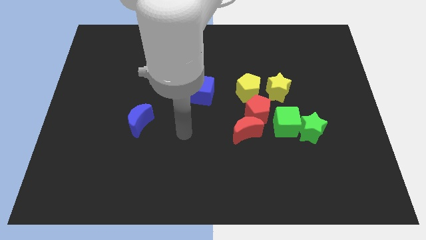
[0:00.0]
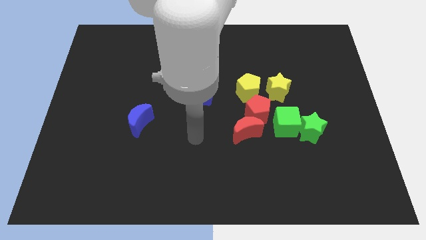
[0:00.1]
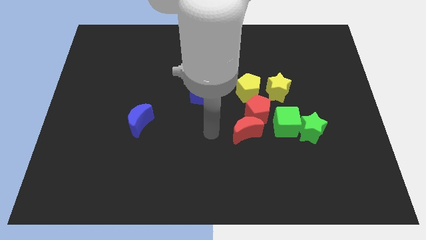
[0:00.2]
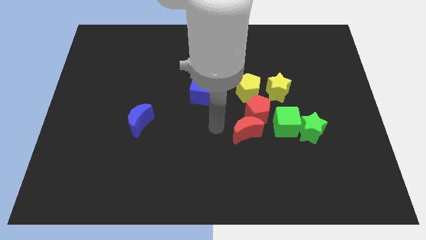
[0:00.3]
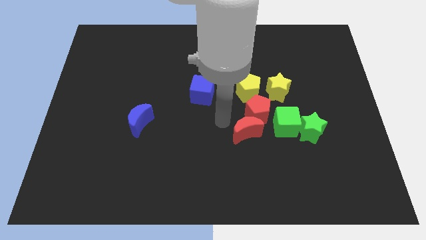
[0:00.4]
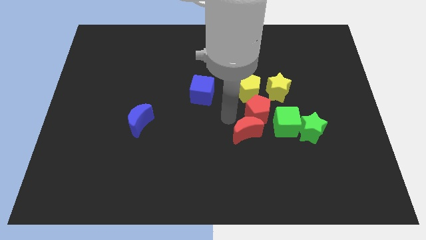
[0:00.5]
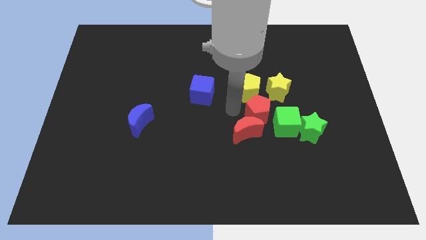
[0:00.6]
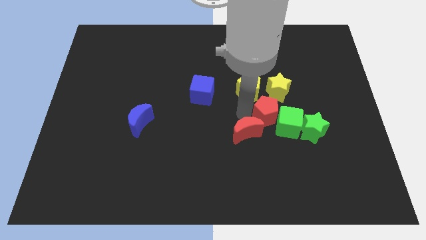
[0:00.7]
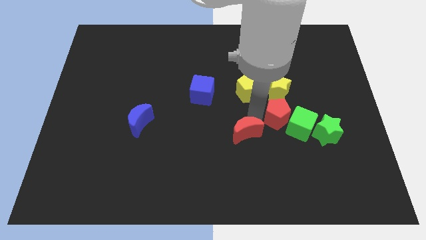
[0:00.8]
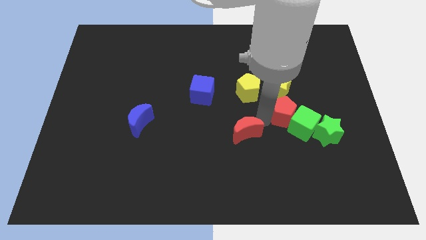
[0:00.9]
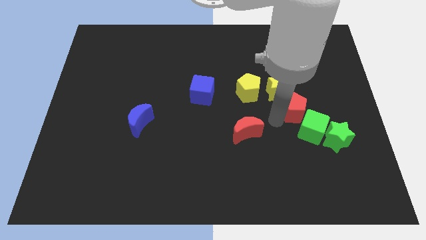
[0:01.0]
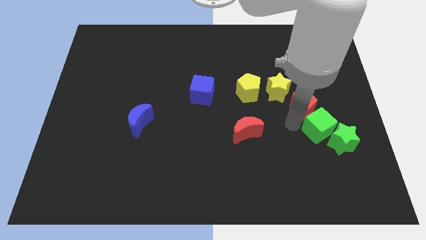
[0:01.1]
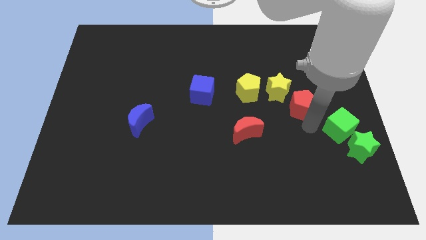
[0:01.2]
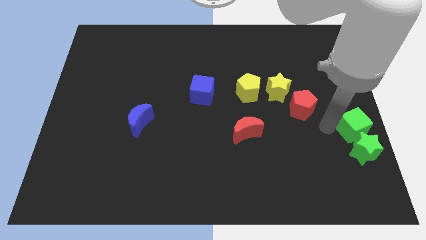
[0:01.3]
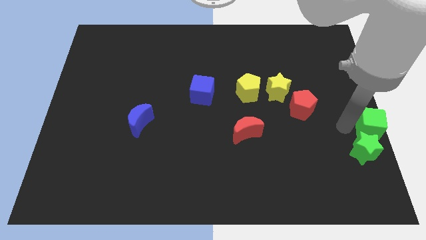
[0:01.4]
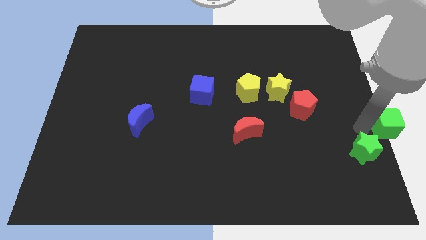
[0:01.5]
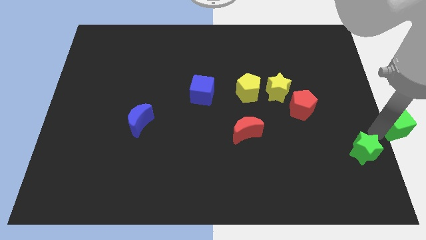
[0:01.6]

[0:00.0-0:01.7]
separate the green star from the green cube

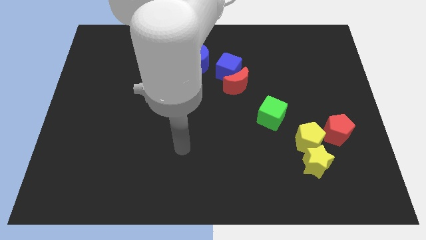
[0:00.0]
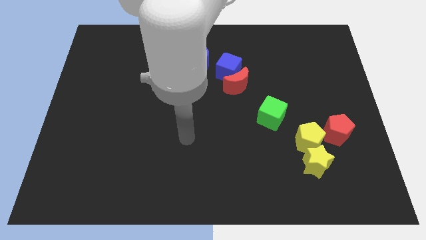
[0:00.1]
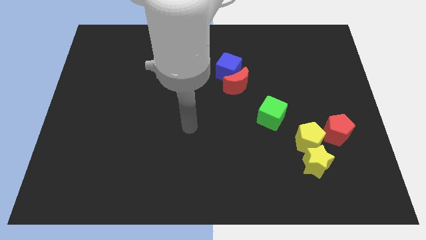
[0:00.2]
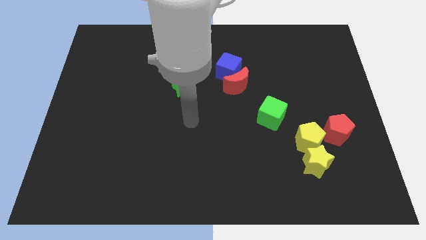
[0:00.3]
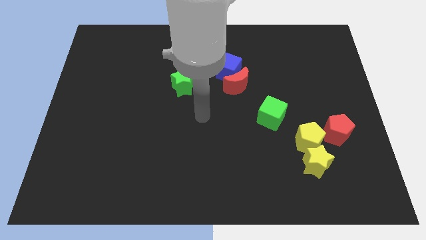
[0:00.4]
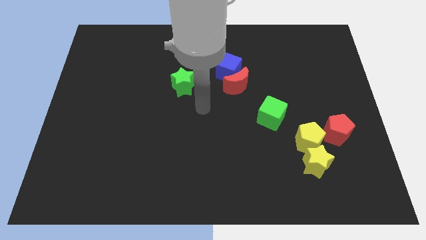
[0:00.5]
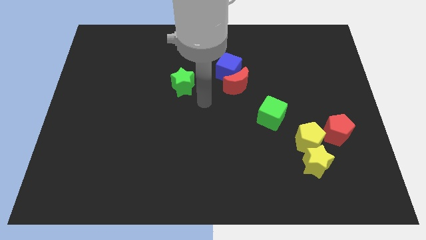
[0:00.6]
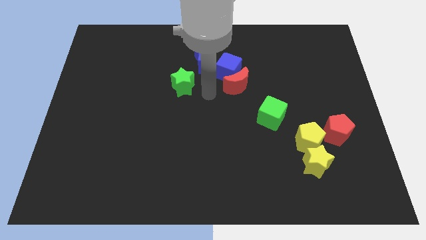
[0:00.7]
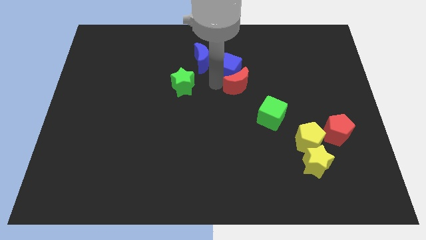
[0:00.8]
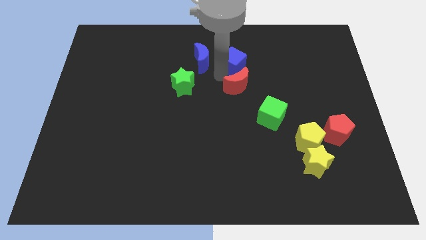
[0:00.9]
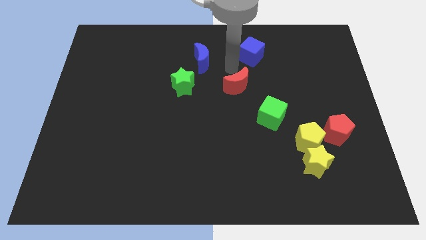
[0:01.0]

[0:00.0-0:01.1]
separate the red moon from the blue cube

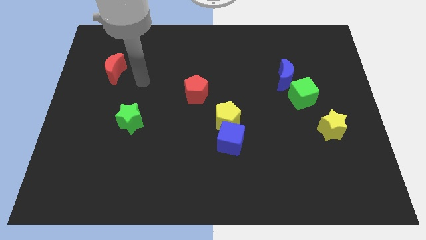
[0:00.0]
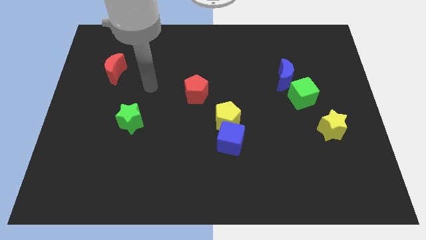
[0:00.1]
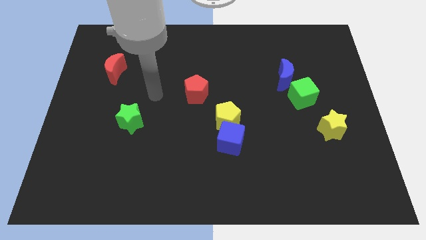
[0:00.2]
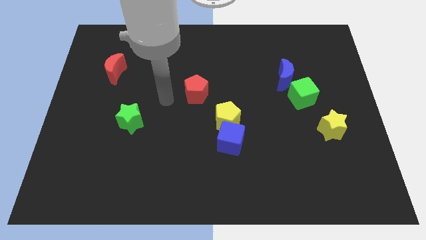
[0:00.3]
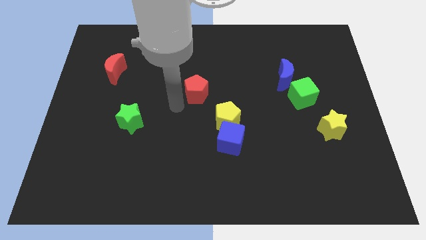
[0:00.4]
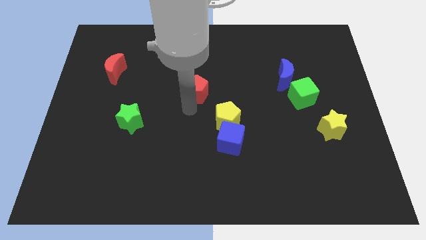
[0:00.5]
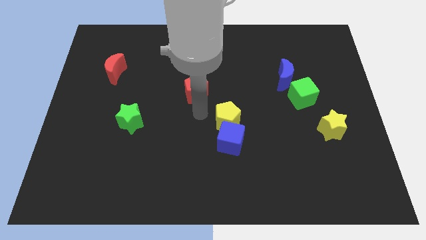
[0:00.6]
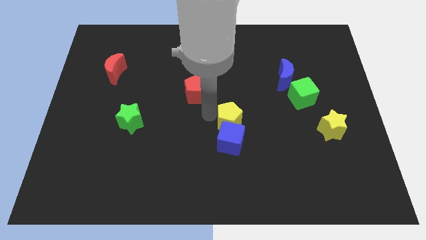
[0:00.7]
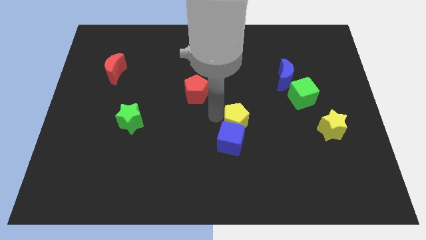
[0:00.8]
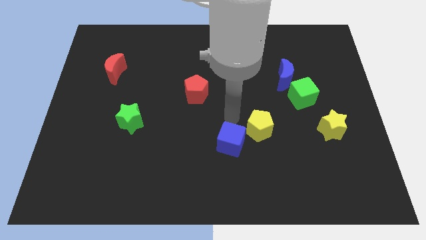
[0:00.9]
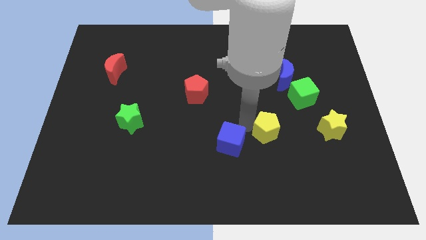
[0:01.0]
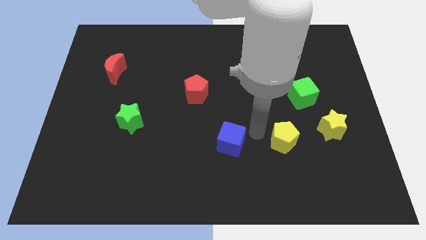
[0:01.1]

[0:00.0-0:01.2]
pull the blue cube apart from the yellow pentagon

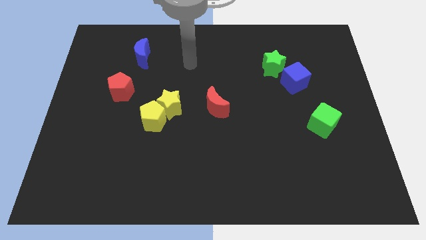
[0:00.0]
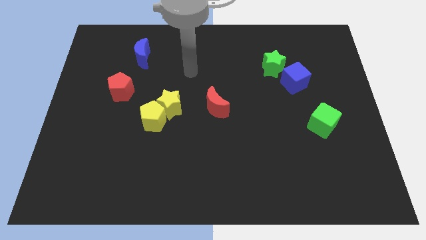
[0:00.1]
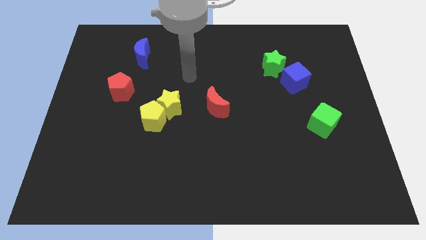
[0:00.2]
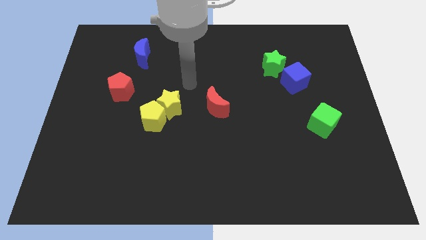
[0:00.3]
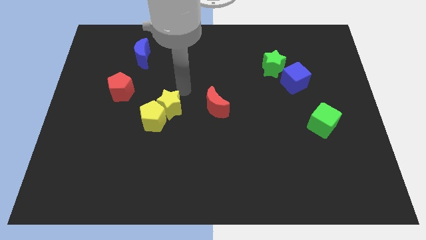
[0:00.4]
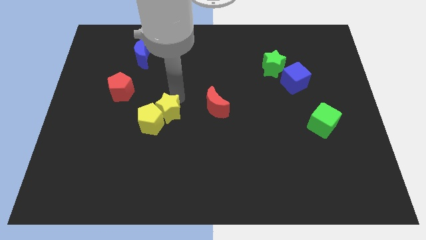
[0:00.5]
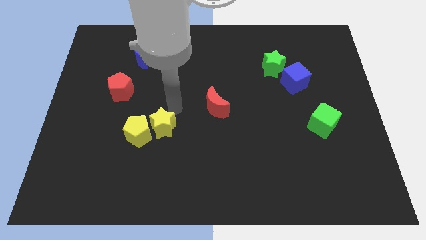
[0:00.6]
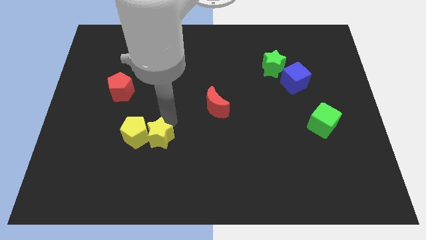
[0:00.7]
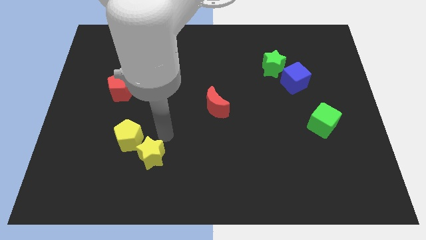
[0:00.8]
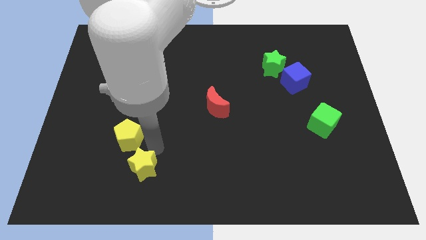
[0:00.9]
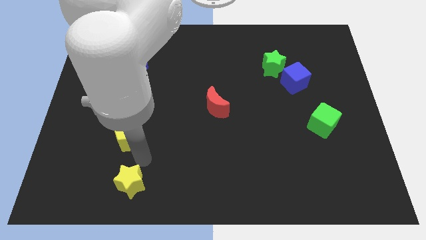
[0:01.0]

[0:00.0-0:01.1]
separate the yellow pentagon from the yellow star

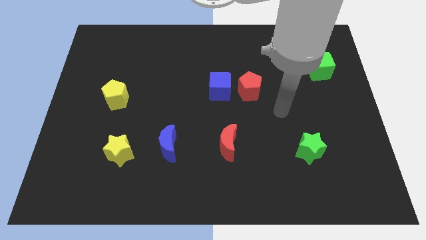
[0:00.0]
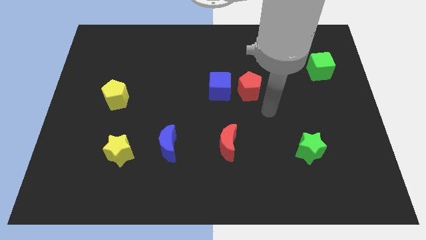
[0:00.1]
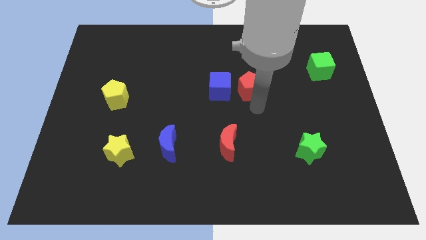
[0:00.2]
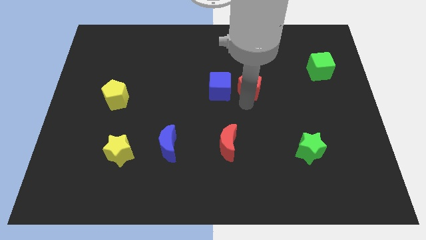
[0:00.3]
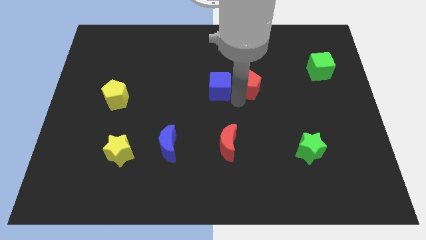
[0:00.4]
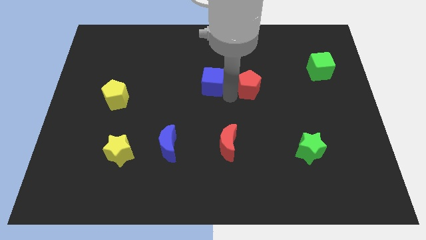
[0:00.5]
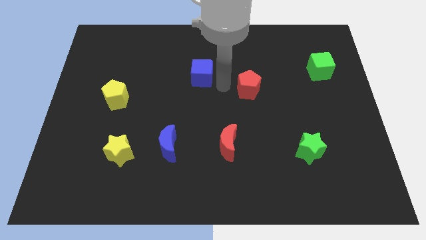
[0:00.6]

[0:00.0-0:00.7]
separate the red pentagon from the blue cube

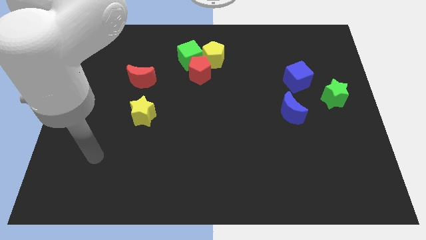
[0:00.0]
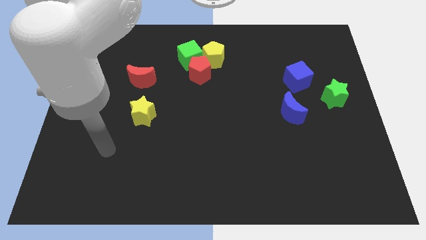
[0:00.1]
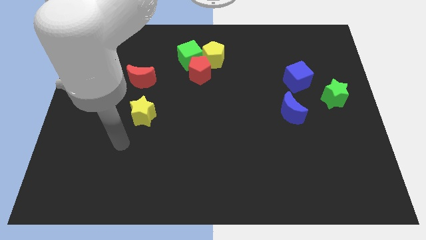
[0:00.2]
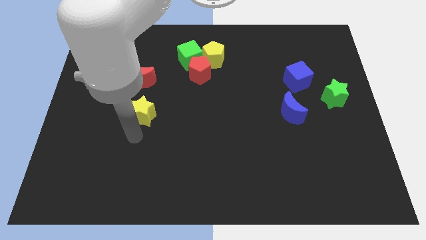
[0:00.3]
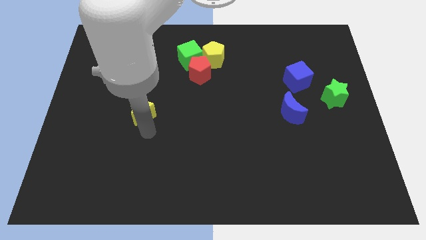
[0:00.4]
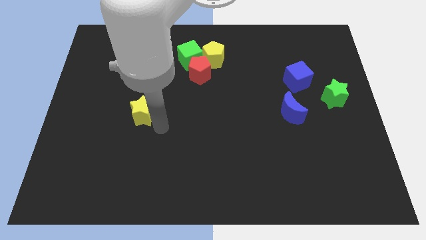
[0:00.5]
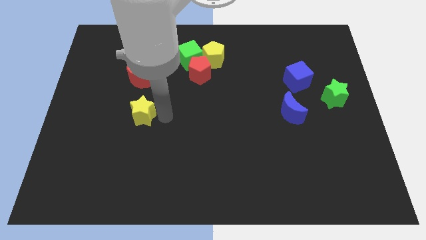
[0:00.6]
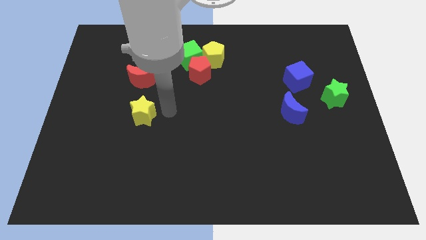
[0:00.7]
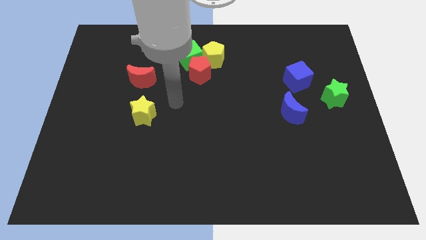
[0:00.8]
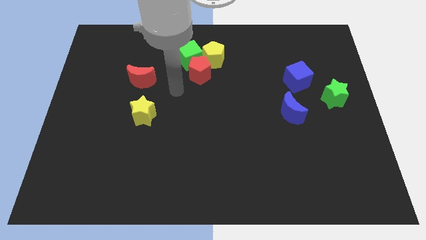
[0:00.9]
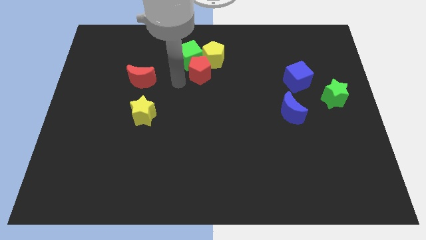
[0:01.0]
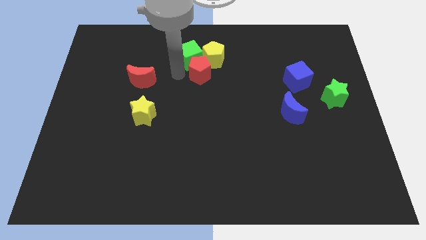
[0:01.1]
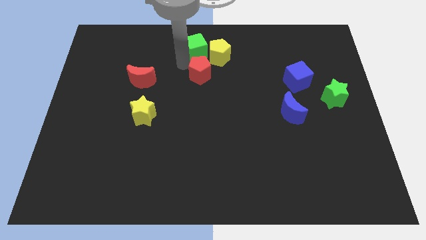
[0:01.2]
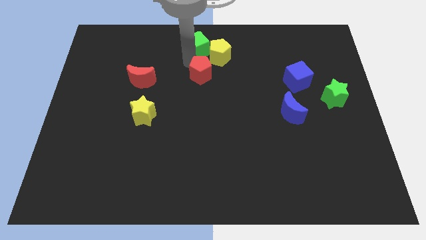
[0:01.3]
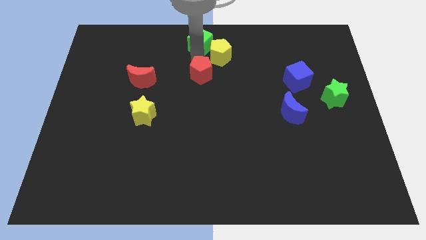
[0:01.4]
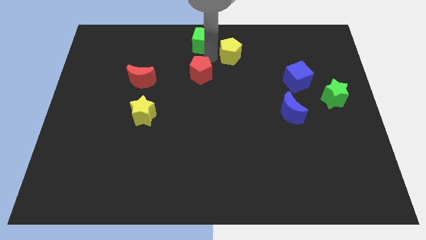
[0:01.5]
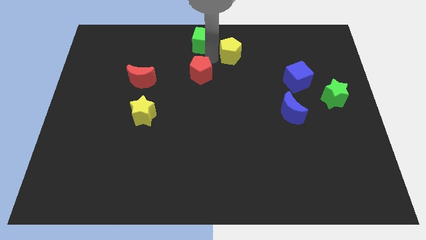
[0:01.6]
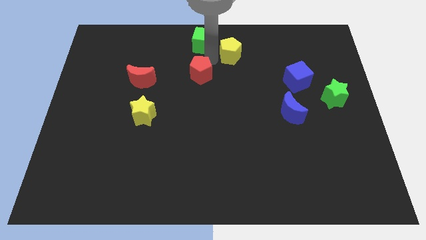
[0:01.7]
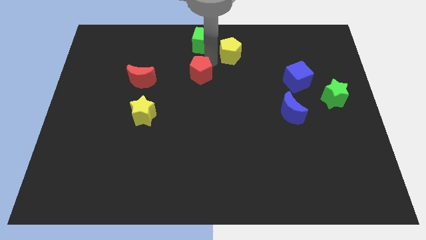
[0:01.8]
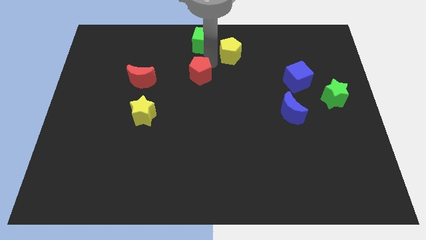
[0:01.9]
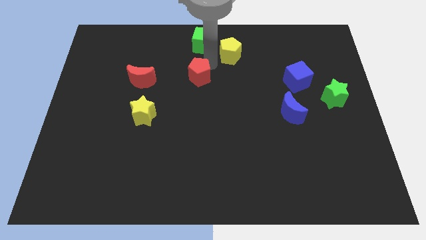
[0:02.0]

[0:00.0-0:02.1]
separate the red pentagon from the green cube and yellow pentagon

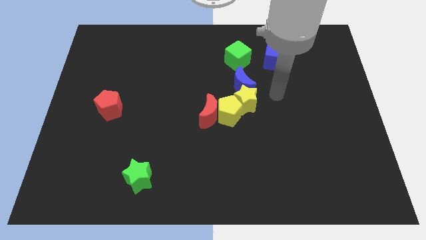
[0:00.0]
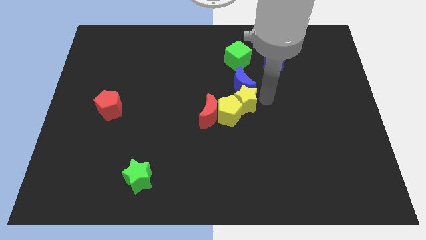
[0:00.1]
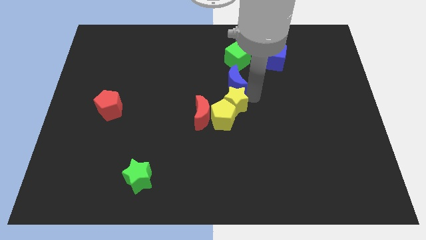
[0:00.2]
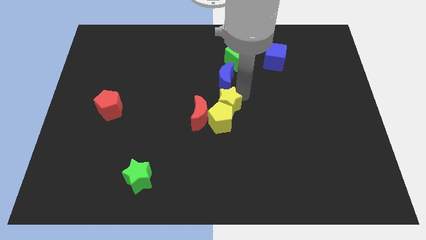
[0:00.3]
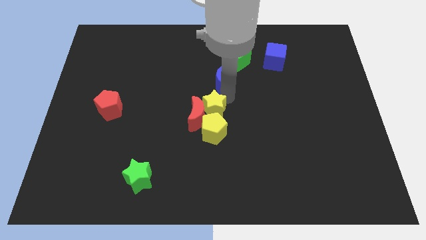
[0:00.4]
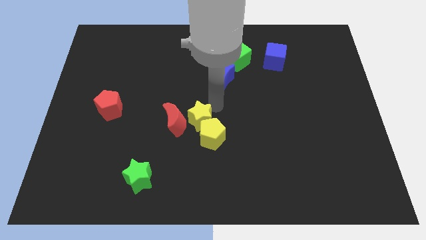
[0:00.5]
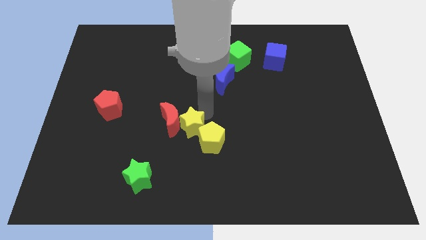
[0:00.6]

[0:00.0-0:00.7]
move the yellow pentagon away from the red moon, yellow star, and blue moon

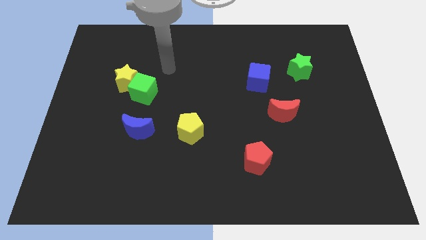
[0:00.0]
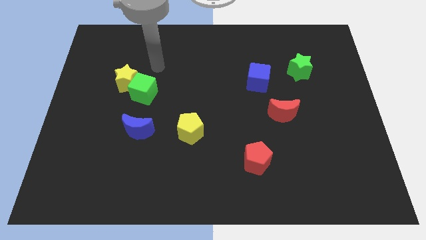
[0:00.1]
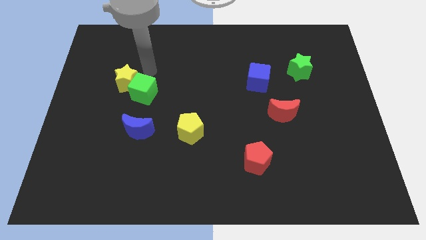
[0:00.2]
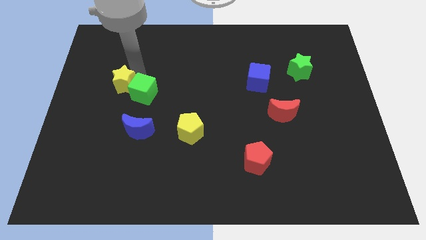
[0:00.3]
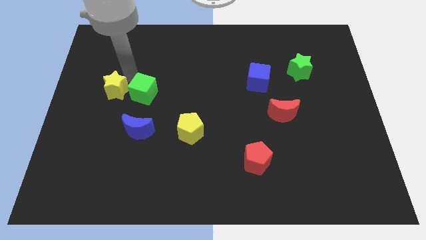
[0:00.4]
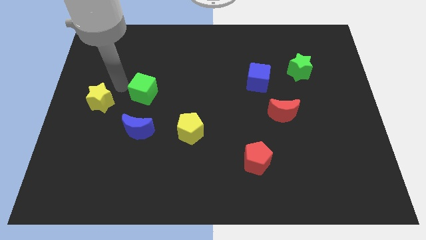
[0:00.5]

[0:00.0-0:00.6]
move the green cube away from the yellow star
